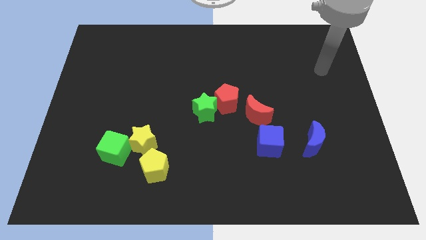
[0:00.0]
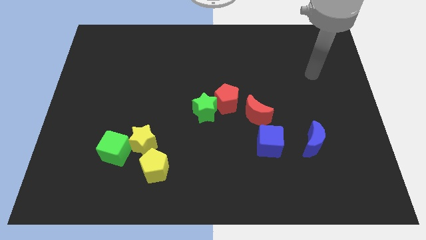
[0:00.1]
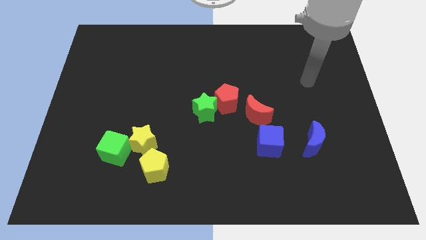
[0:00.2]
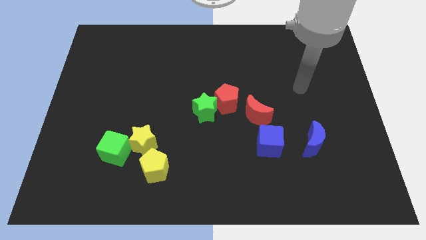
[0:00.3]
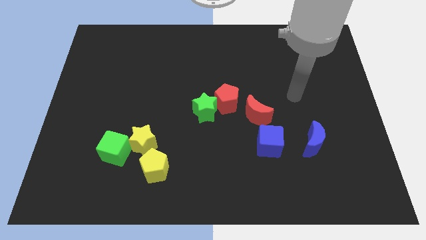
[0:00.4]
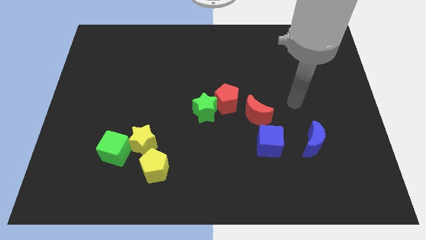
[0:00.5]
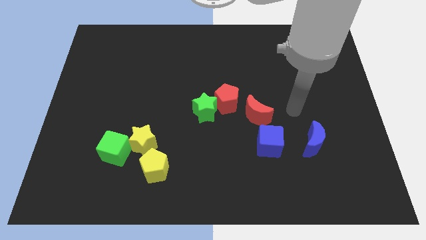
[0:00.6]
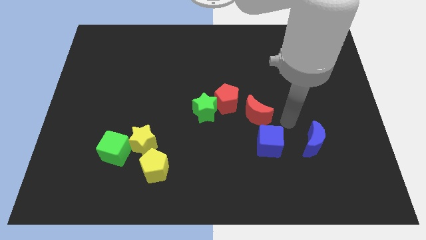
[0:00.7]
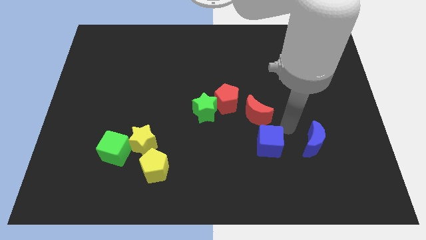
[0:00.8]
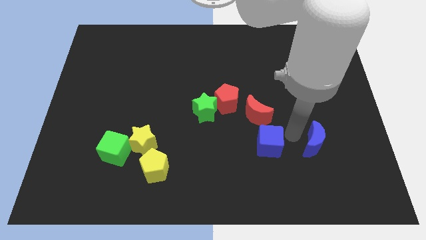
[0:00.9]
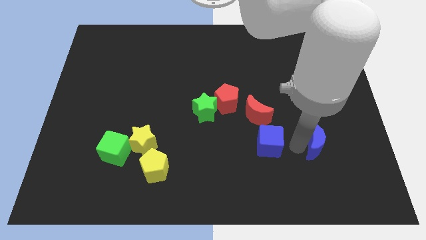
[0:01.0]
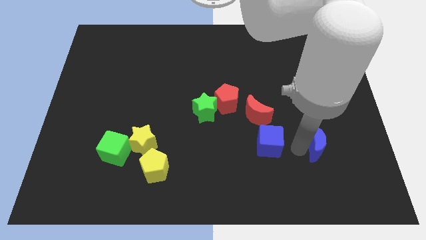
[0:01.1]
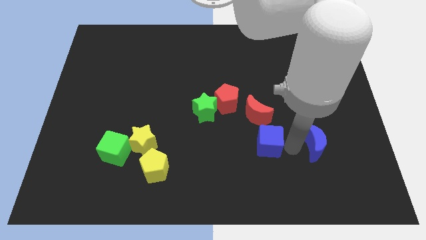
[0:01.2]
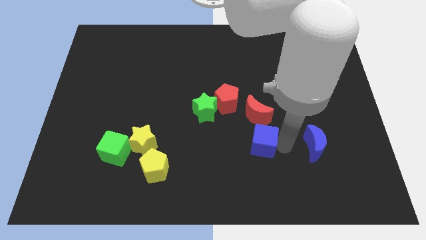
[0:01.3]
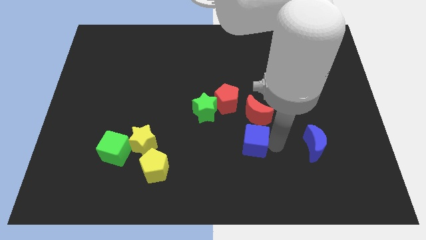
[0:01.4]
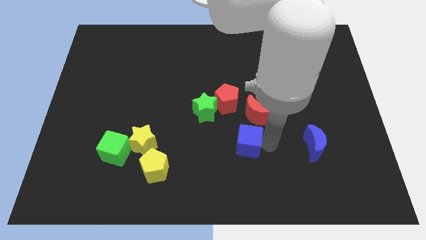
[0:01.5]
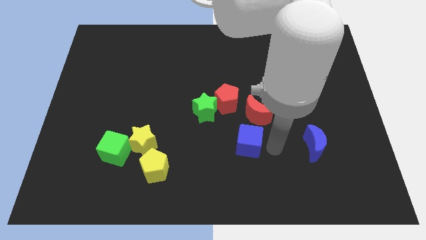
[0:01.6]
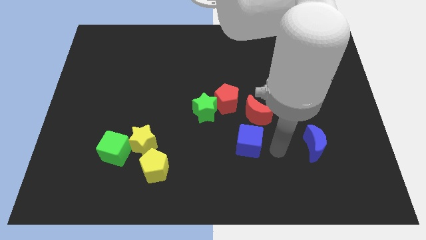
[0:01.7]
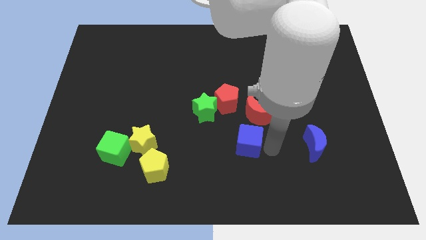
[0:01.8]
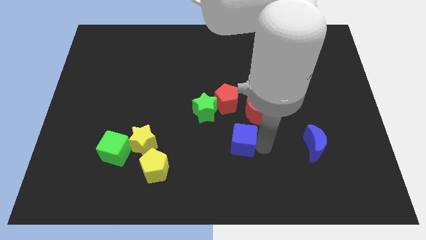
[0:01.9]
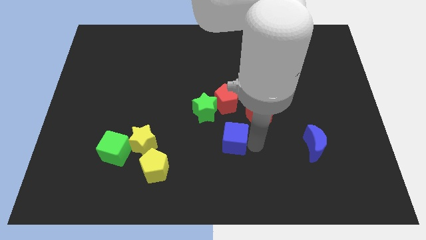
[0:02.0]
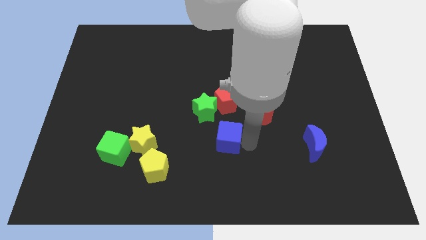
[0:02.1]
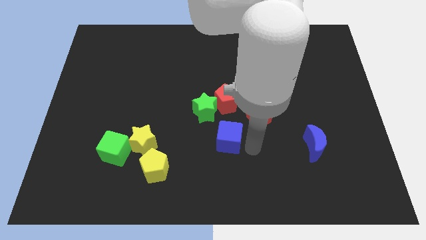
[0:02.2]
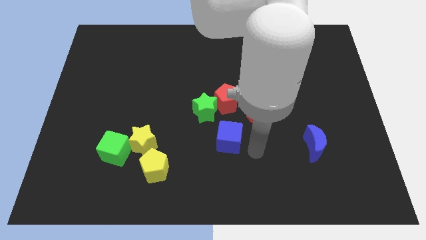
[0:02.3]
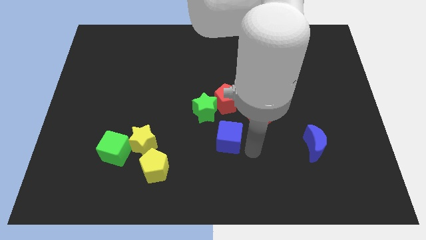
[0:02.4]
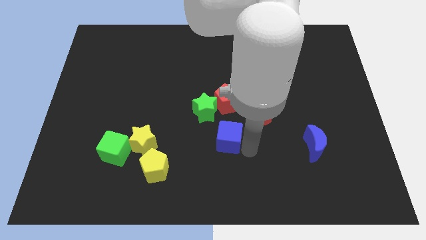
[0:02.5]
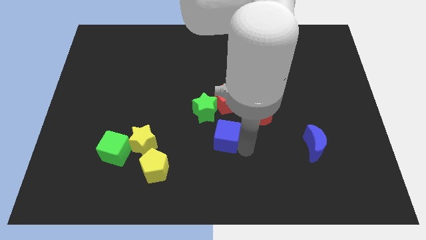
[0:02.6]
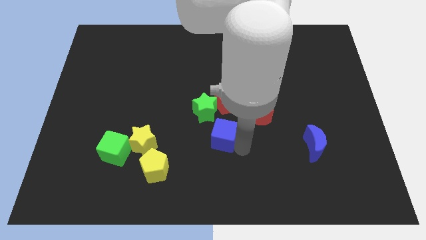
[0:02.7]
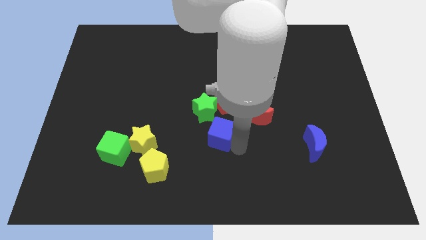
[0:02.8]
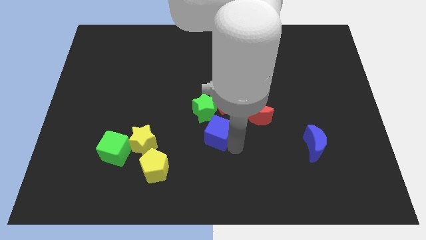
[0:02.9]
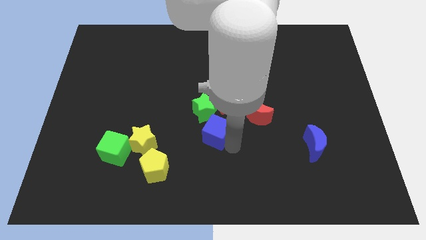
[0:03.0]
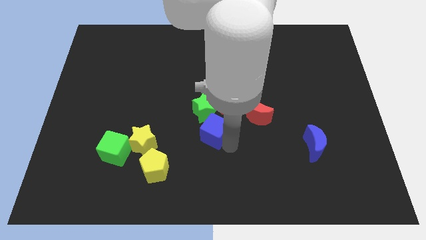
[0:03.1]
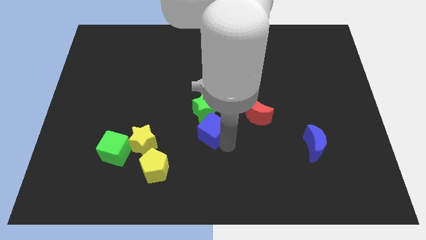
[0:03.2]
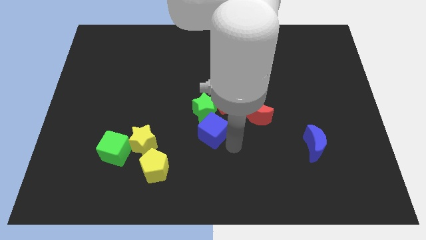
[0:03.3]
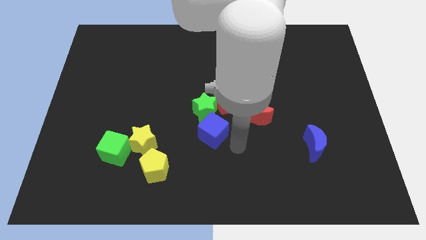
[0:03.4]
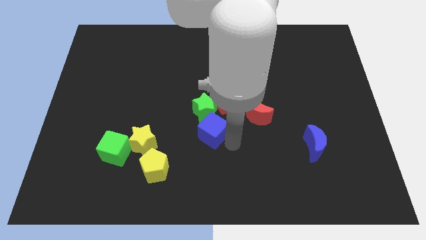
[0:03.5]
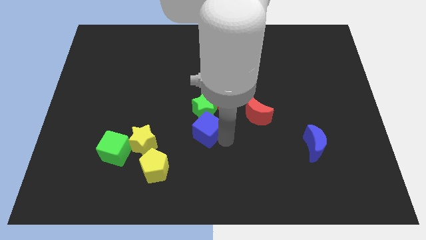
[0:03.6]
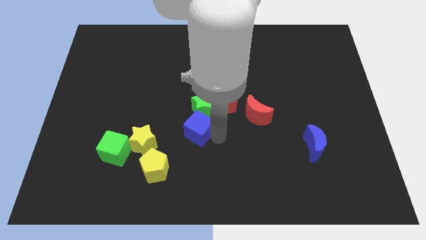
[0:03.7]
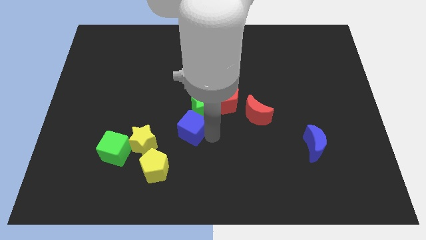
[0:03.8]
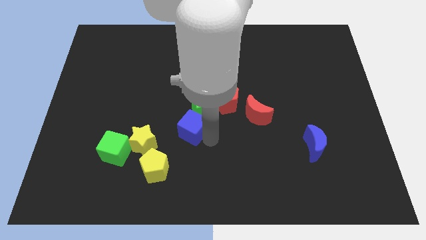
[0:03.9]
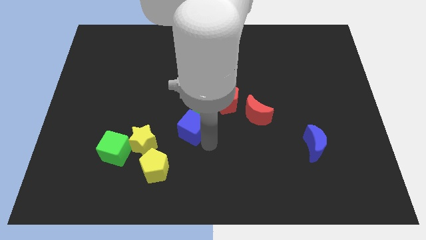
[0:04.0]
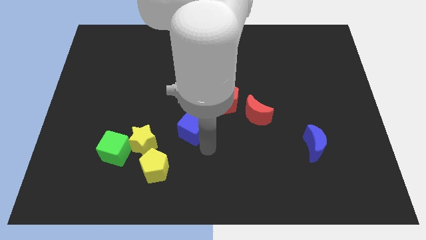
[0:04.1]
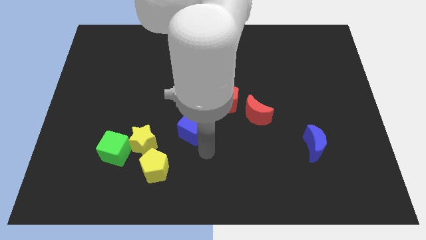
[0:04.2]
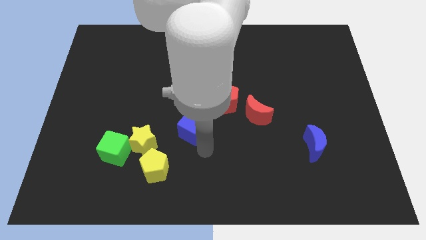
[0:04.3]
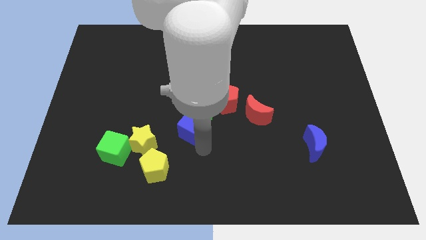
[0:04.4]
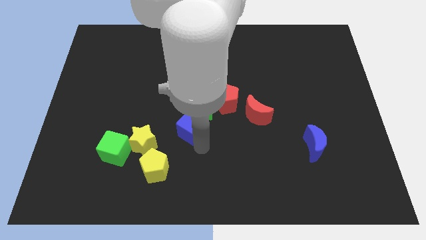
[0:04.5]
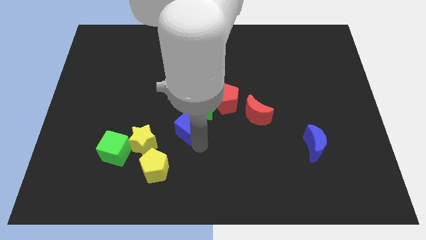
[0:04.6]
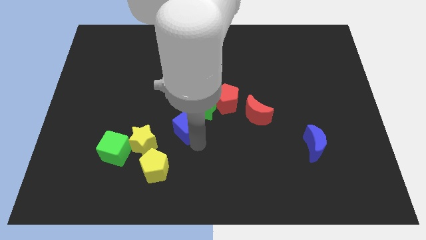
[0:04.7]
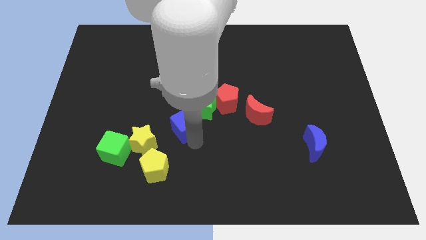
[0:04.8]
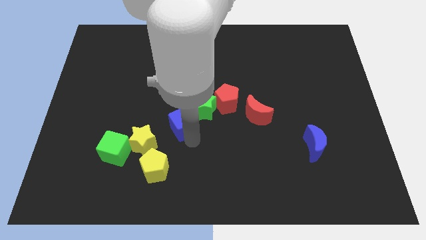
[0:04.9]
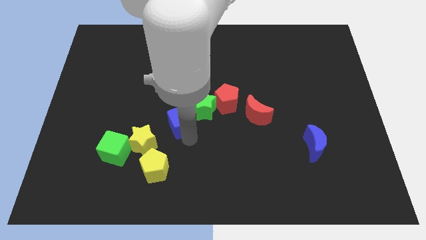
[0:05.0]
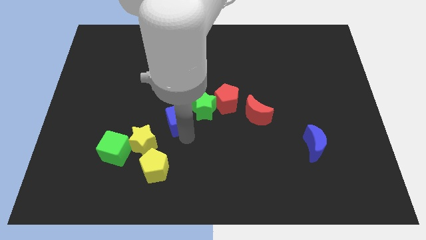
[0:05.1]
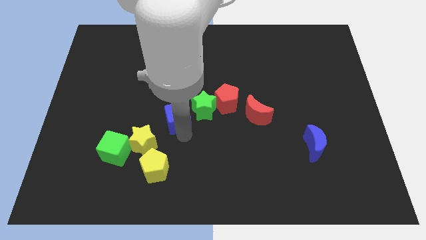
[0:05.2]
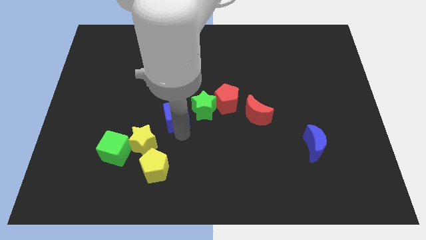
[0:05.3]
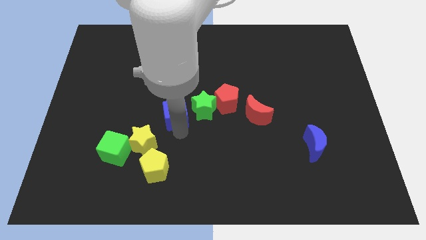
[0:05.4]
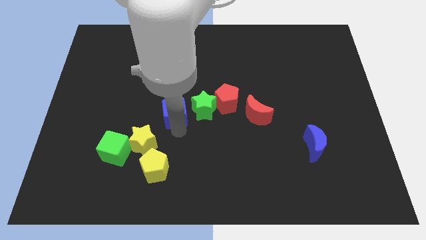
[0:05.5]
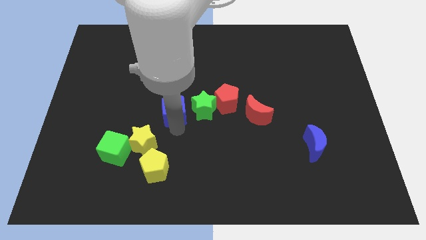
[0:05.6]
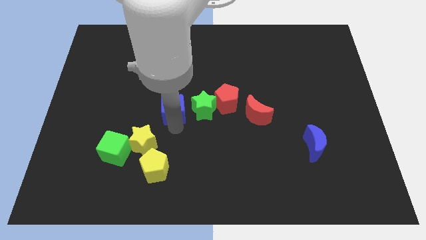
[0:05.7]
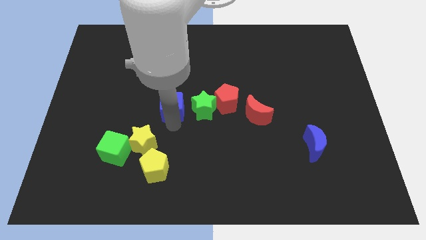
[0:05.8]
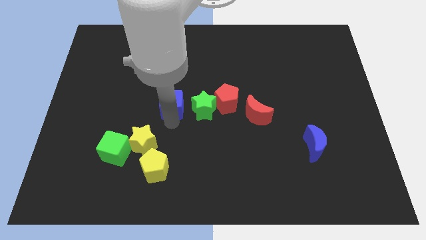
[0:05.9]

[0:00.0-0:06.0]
push the blue cube diagonally upwards and to the left

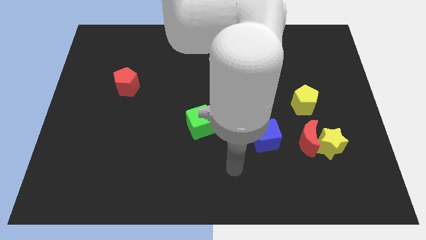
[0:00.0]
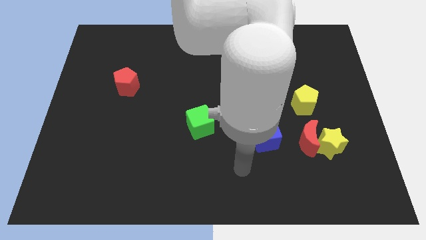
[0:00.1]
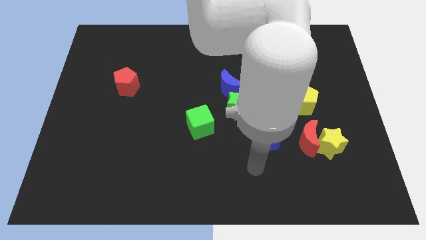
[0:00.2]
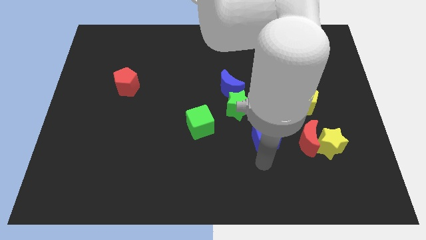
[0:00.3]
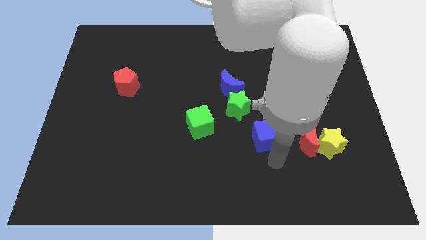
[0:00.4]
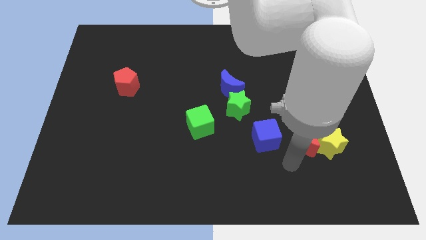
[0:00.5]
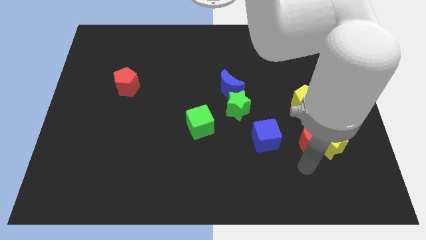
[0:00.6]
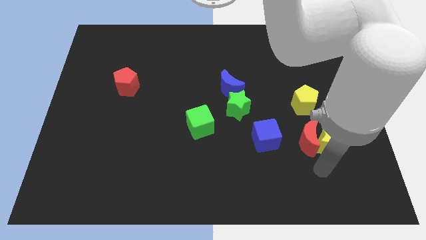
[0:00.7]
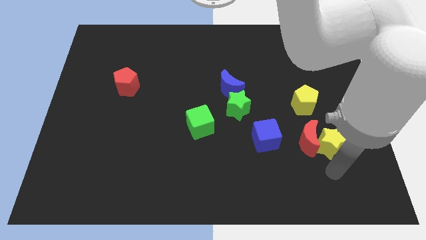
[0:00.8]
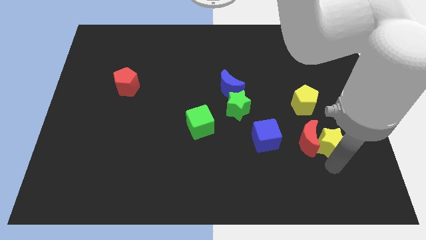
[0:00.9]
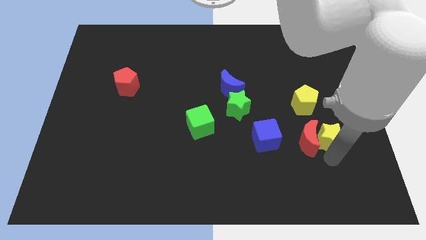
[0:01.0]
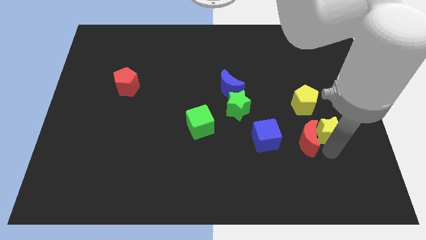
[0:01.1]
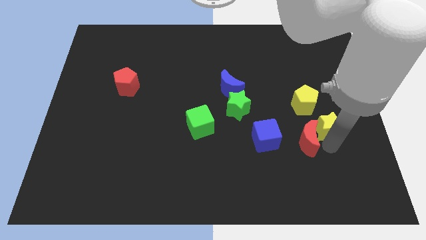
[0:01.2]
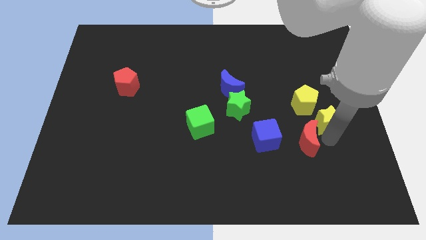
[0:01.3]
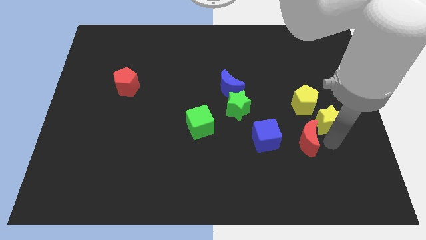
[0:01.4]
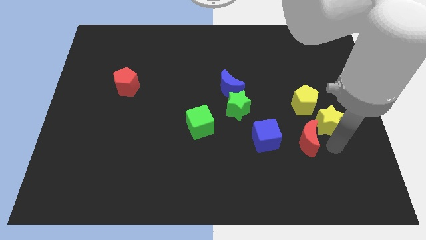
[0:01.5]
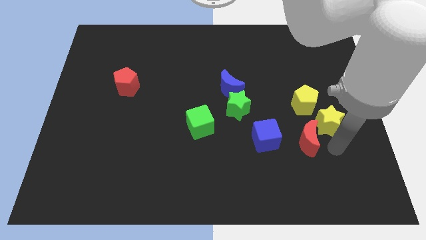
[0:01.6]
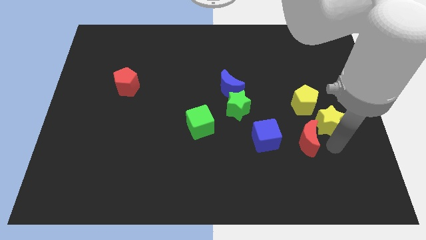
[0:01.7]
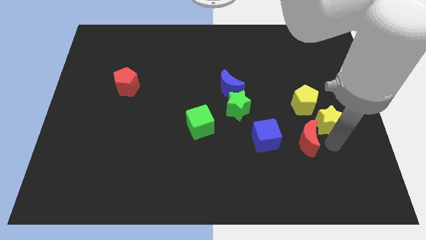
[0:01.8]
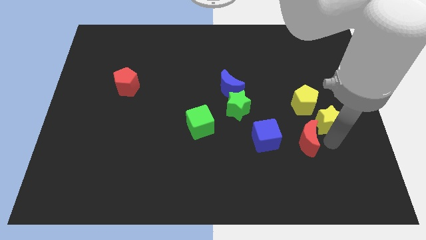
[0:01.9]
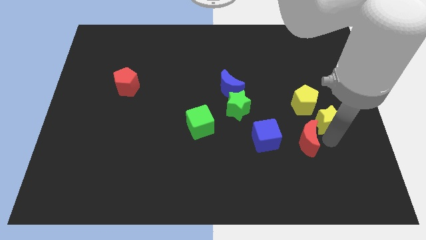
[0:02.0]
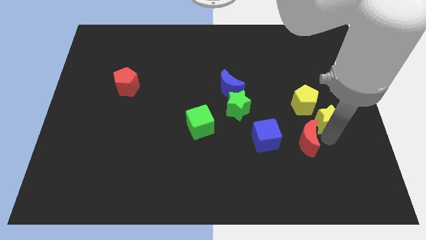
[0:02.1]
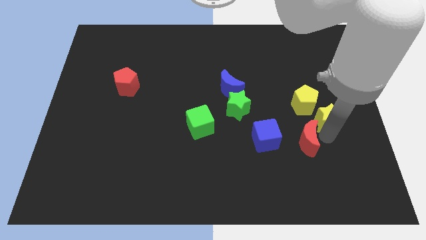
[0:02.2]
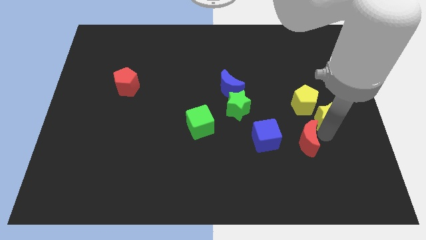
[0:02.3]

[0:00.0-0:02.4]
slide the yellow star a little upwards
